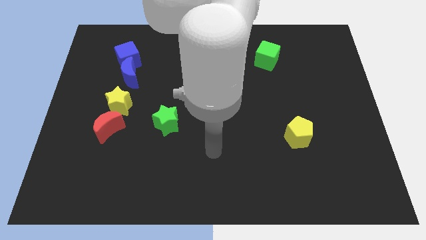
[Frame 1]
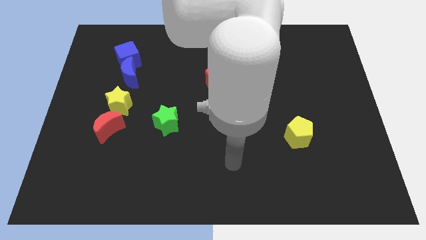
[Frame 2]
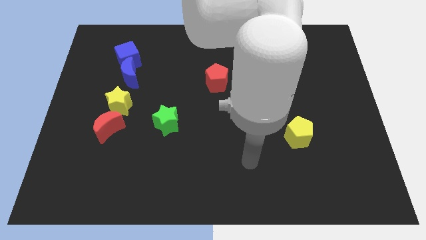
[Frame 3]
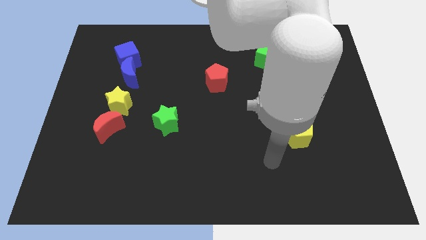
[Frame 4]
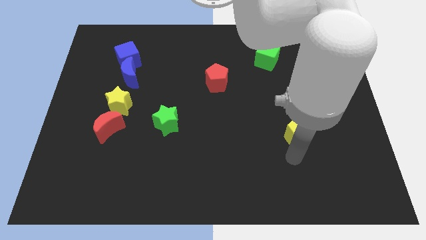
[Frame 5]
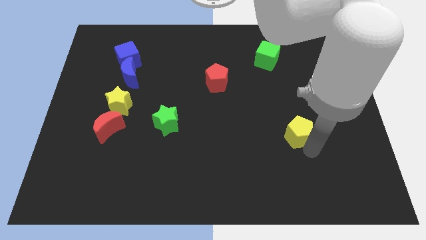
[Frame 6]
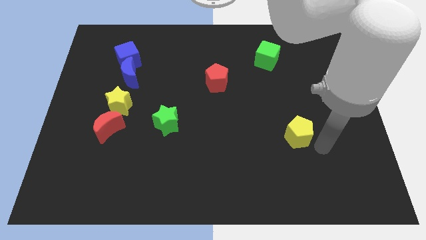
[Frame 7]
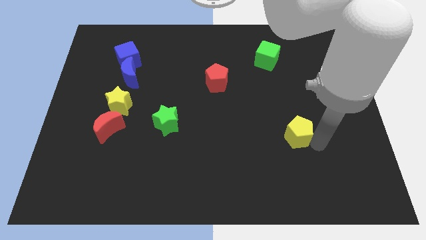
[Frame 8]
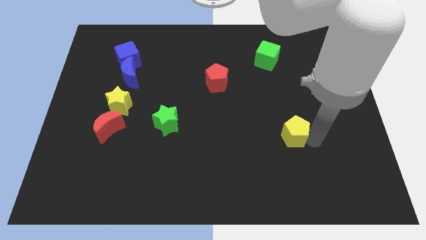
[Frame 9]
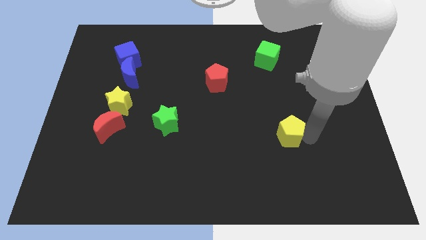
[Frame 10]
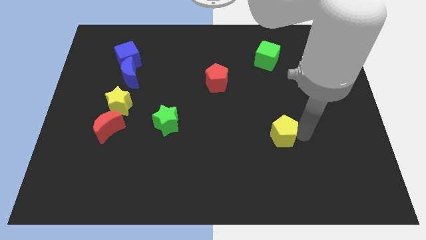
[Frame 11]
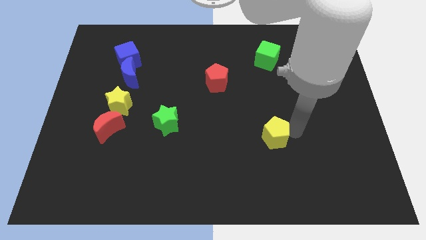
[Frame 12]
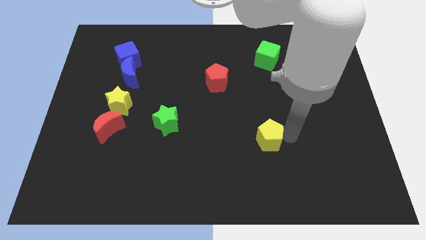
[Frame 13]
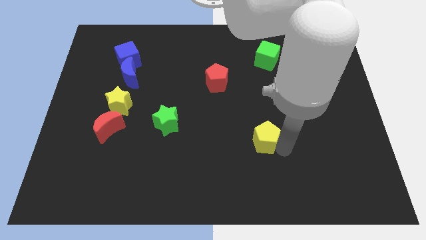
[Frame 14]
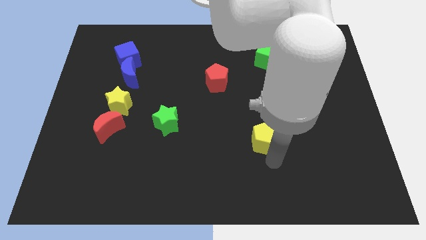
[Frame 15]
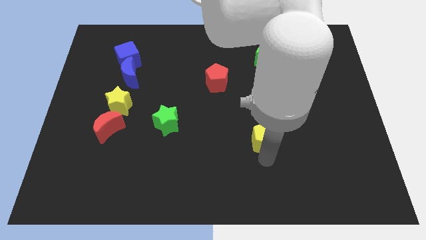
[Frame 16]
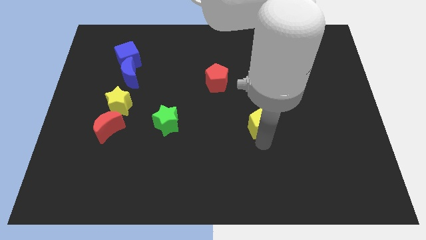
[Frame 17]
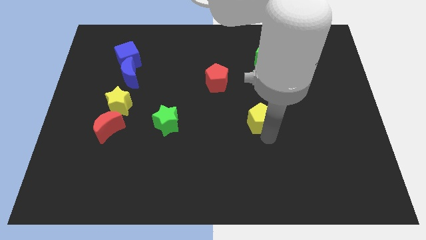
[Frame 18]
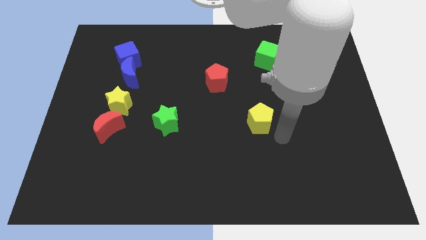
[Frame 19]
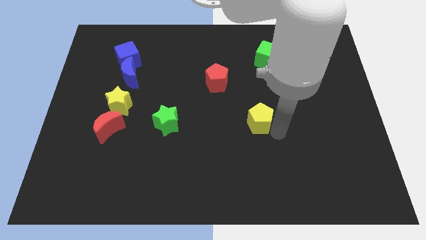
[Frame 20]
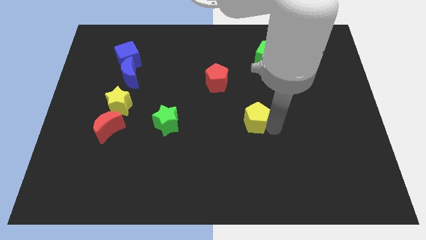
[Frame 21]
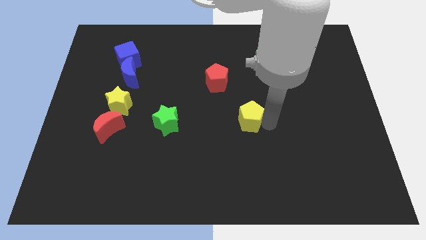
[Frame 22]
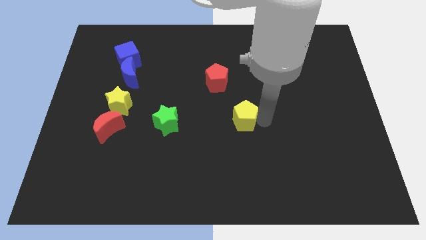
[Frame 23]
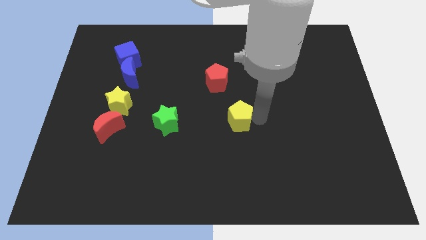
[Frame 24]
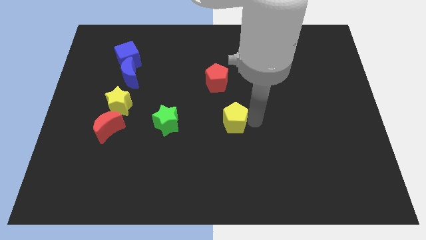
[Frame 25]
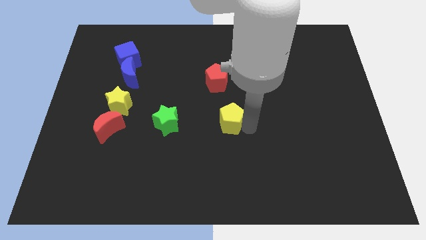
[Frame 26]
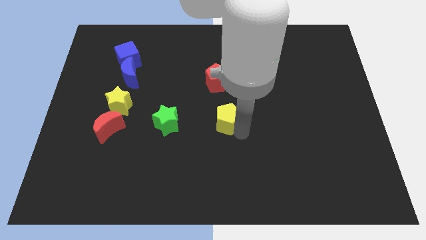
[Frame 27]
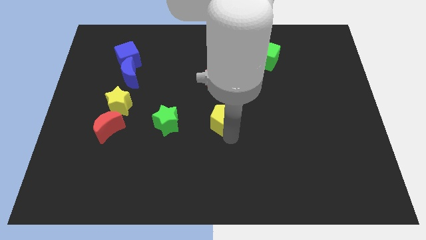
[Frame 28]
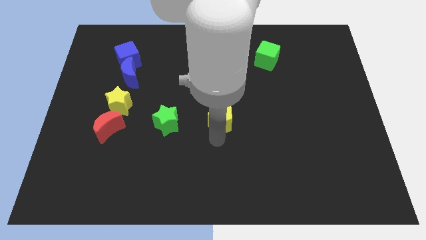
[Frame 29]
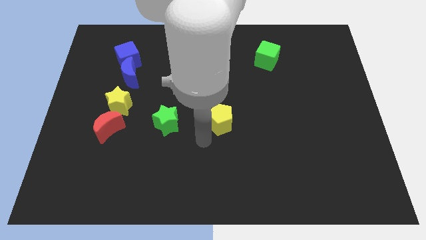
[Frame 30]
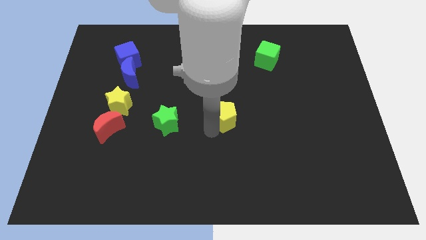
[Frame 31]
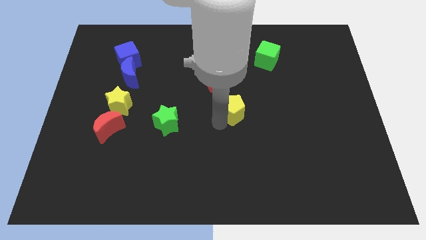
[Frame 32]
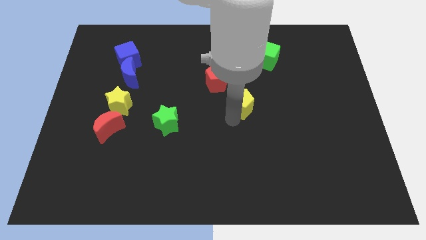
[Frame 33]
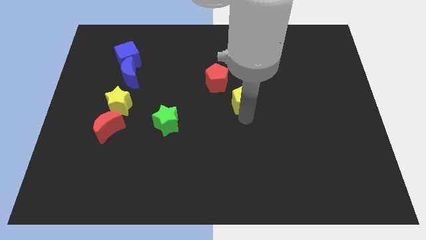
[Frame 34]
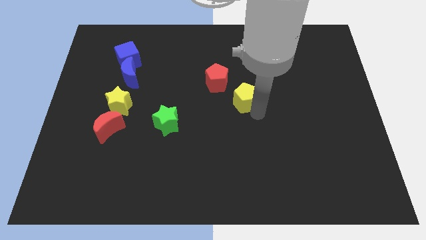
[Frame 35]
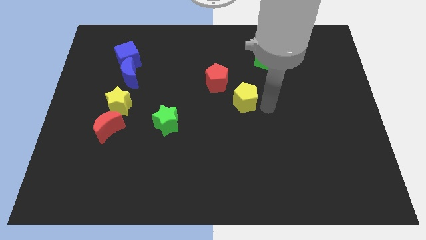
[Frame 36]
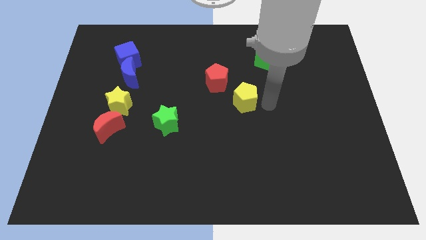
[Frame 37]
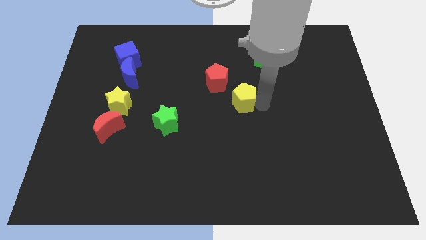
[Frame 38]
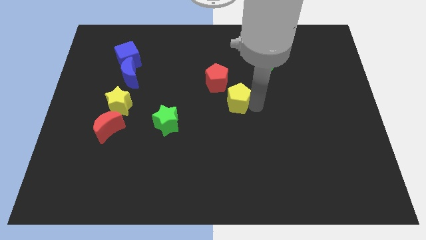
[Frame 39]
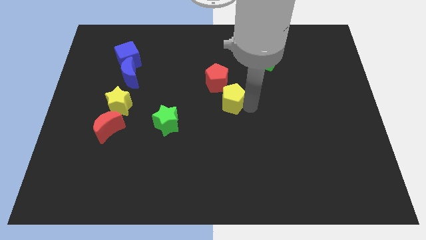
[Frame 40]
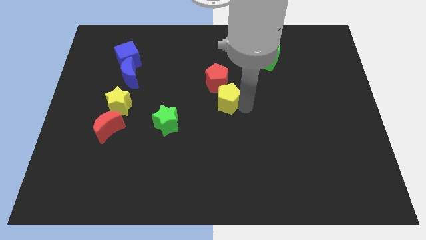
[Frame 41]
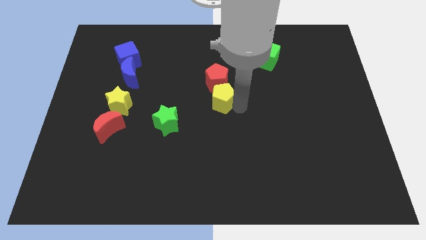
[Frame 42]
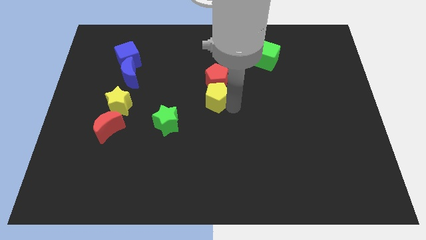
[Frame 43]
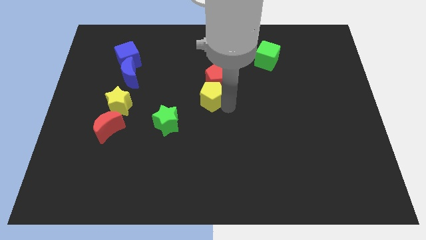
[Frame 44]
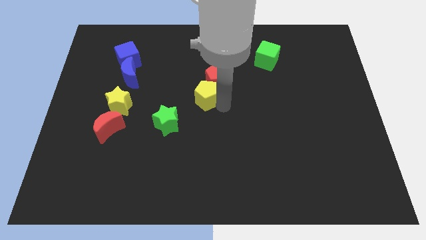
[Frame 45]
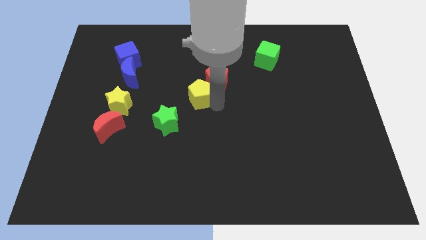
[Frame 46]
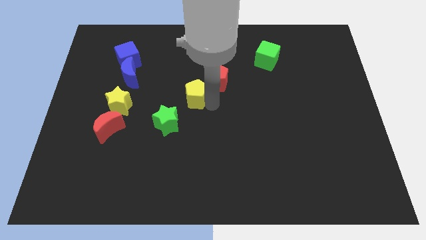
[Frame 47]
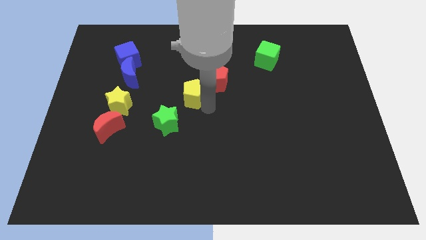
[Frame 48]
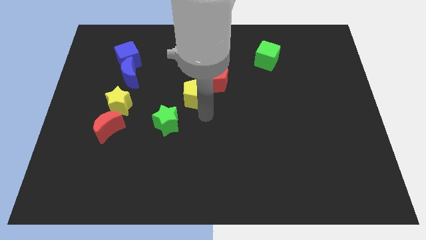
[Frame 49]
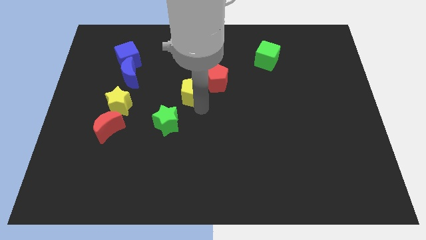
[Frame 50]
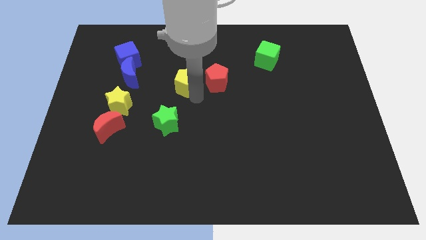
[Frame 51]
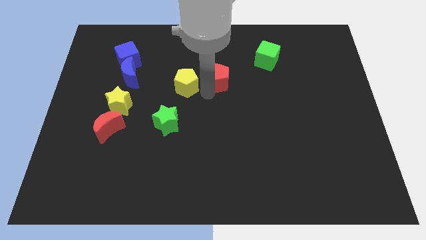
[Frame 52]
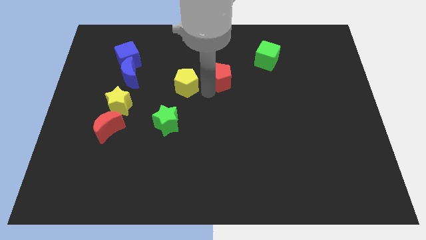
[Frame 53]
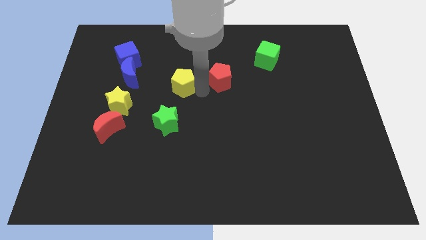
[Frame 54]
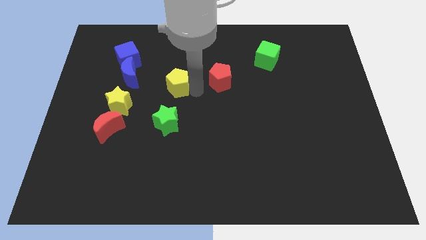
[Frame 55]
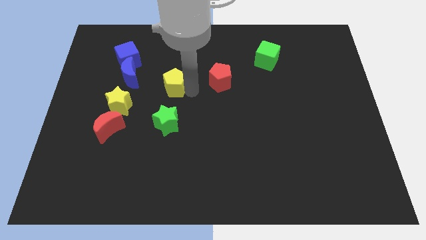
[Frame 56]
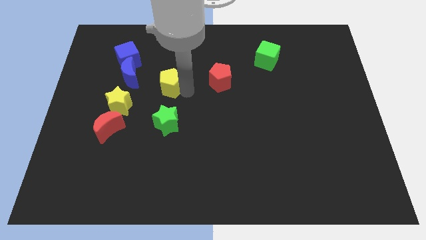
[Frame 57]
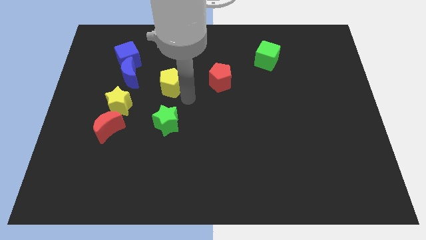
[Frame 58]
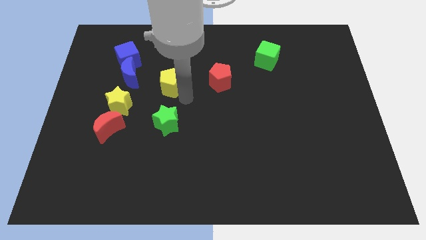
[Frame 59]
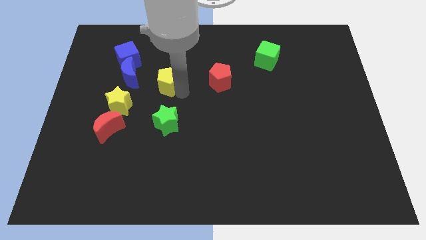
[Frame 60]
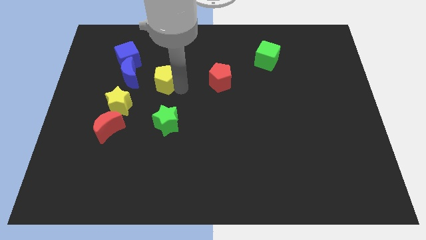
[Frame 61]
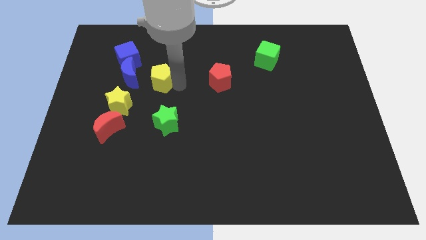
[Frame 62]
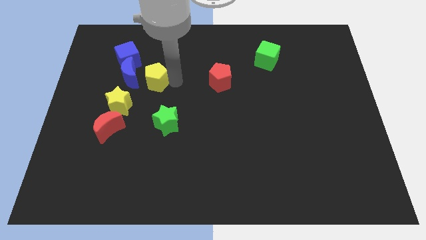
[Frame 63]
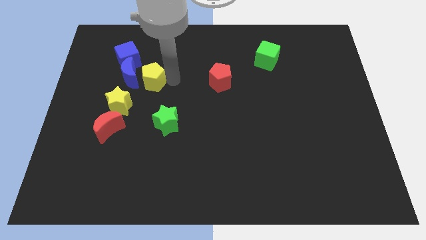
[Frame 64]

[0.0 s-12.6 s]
slide the yellow pentagon close to the blue moon

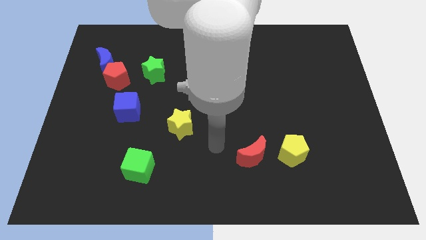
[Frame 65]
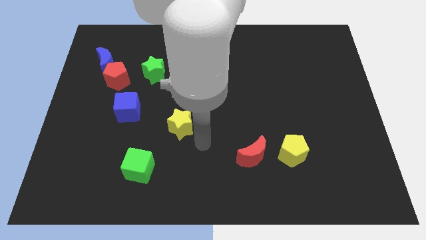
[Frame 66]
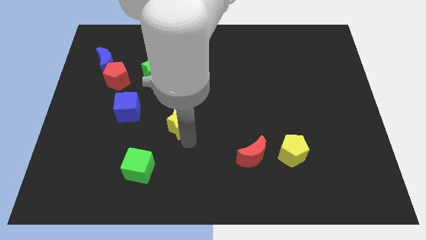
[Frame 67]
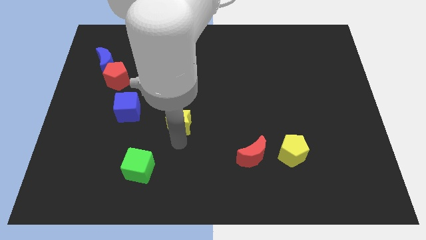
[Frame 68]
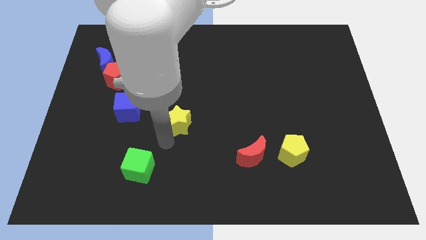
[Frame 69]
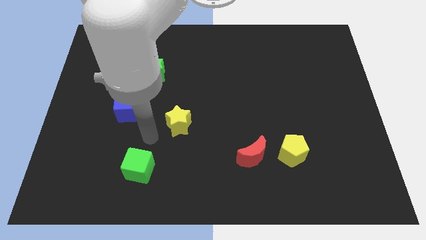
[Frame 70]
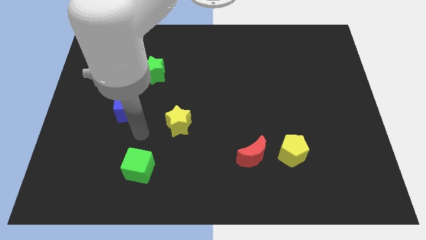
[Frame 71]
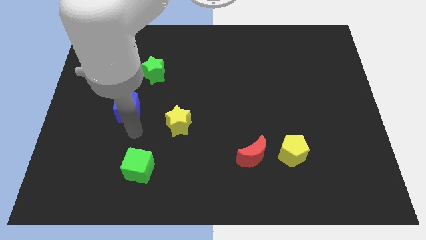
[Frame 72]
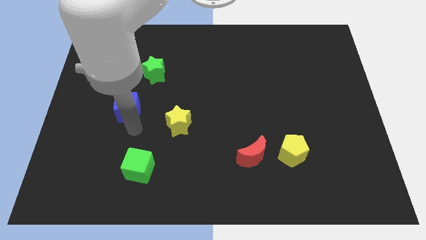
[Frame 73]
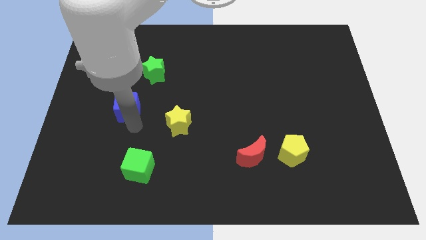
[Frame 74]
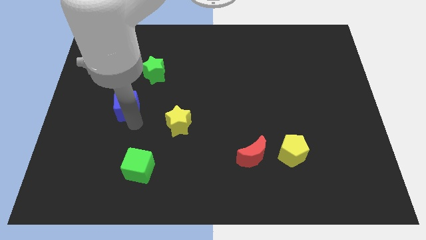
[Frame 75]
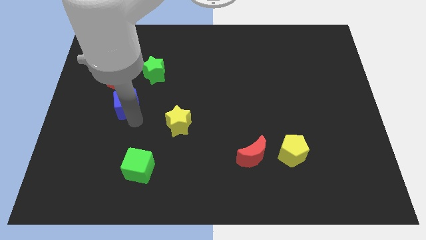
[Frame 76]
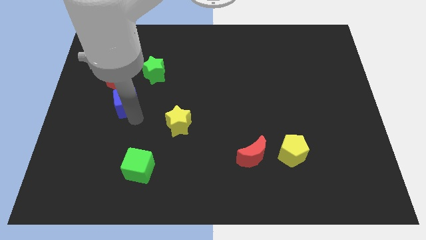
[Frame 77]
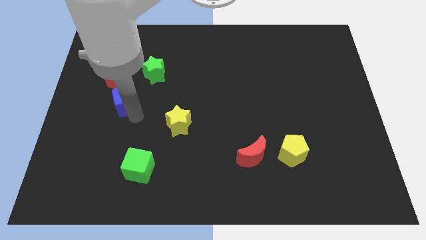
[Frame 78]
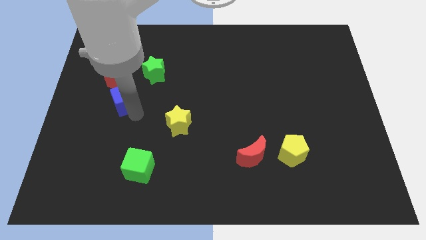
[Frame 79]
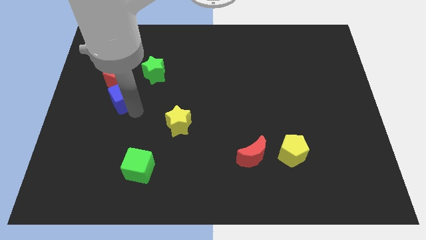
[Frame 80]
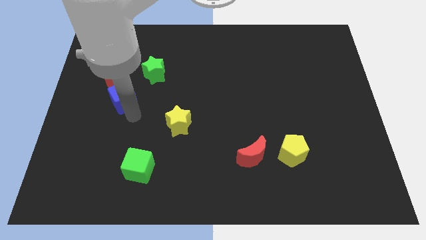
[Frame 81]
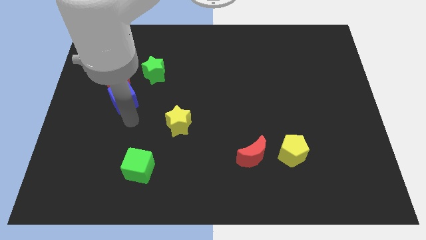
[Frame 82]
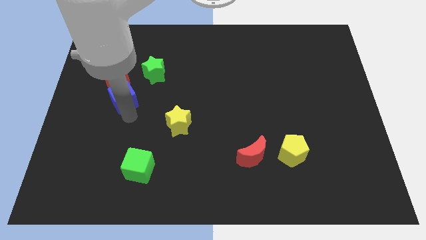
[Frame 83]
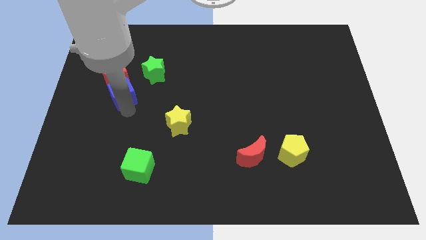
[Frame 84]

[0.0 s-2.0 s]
move the blue cube next to the red pentagon
